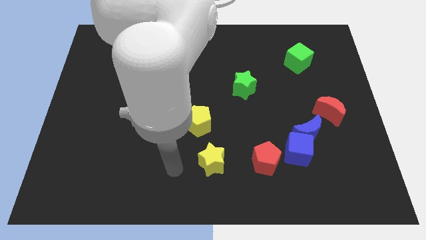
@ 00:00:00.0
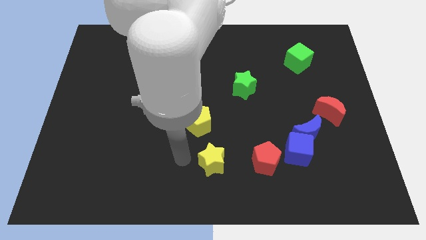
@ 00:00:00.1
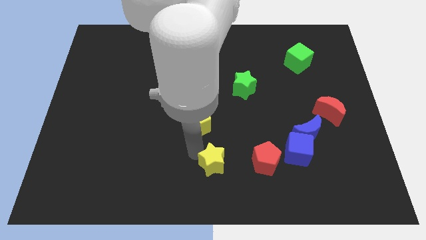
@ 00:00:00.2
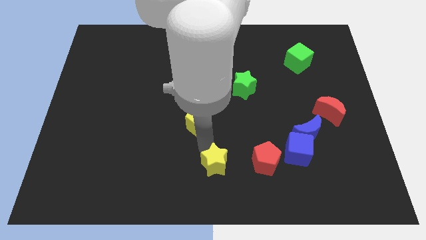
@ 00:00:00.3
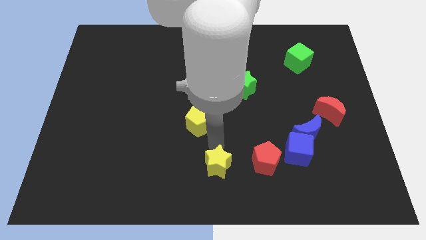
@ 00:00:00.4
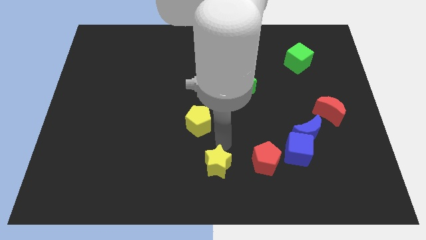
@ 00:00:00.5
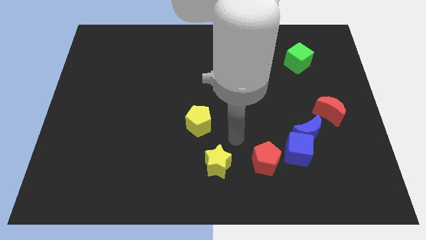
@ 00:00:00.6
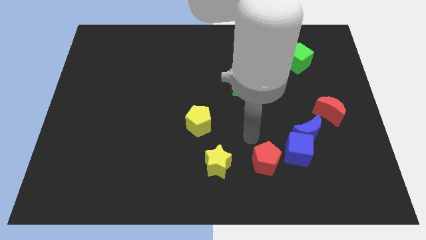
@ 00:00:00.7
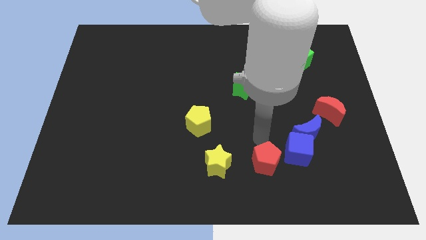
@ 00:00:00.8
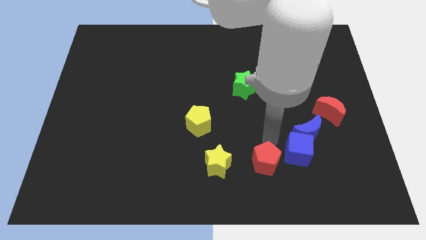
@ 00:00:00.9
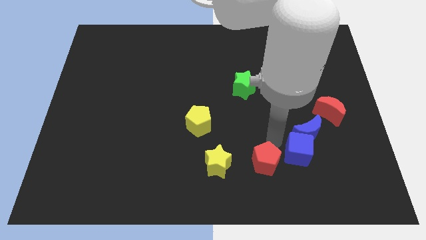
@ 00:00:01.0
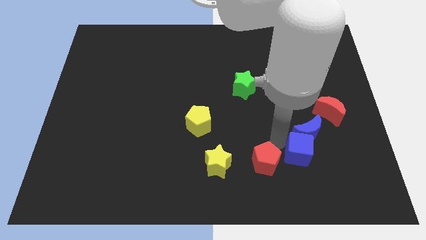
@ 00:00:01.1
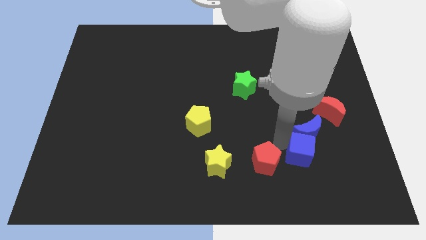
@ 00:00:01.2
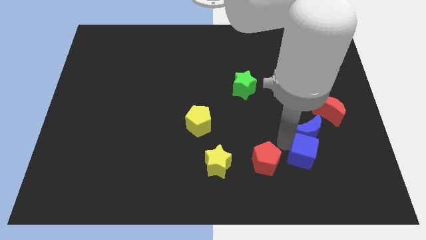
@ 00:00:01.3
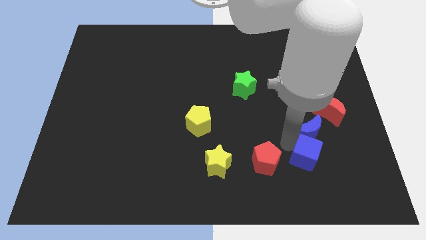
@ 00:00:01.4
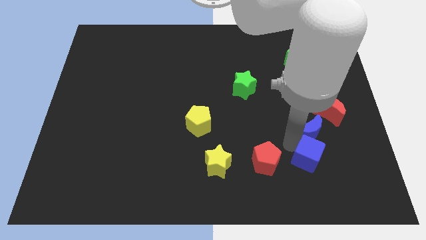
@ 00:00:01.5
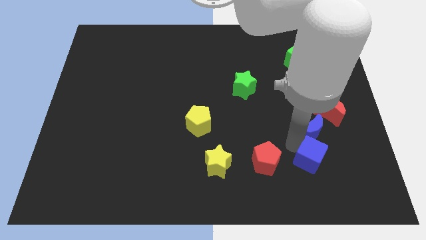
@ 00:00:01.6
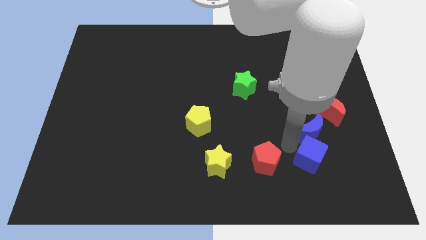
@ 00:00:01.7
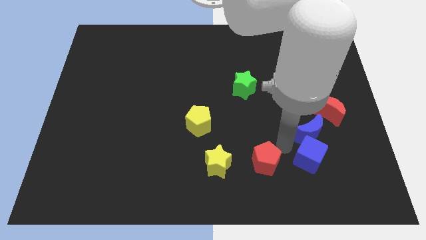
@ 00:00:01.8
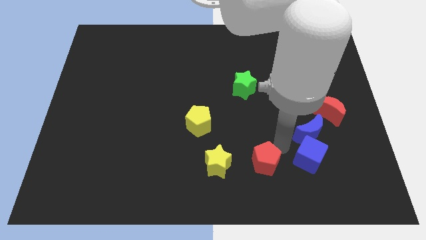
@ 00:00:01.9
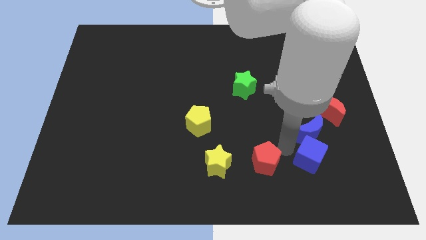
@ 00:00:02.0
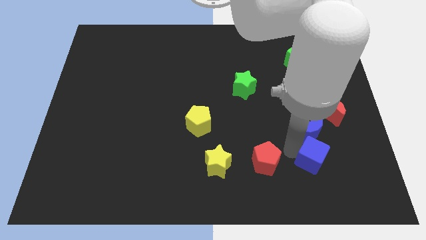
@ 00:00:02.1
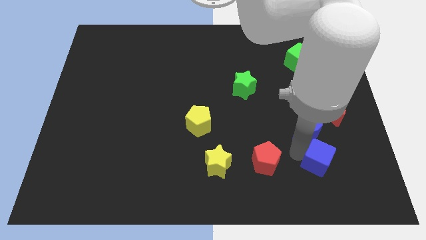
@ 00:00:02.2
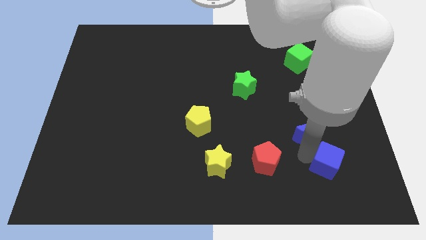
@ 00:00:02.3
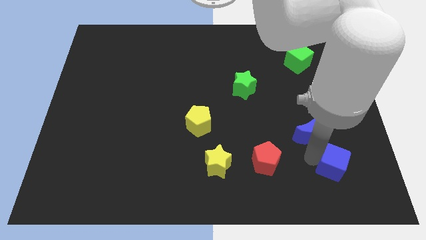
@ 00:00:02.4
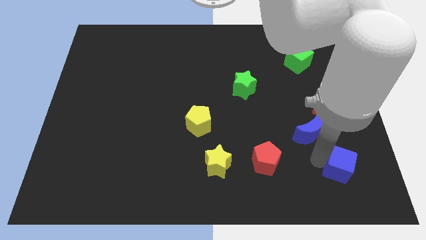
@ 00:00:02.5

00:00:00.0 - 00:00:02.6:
pull the blue cube apart from the blue moon and red pentagon

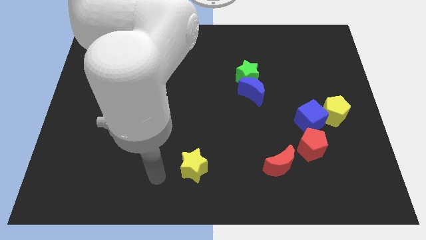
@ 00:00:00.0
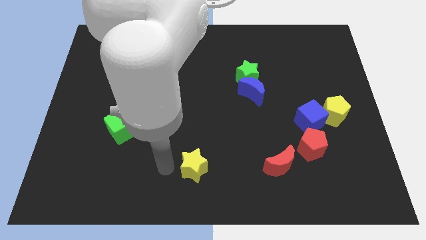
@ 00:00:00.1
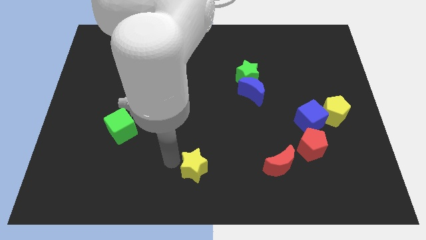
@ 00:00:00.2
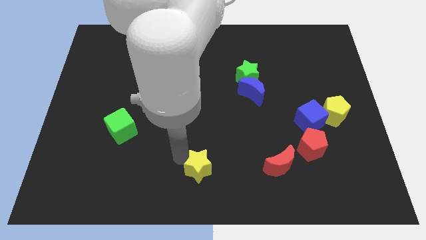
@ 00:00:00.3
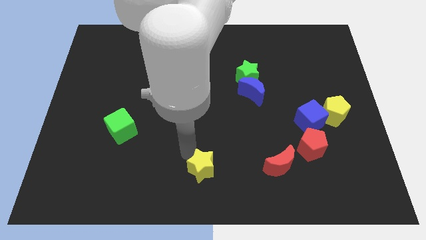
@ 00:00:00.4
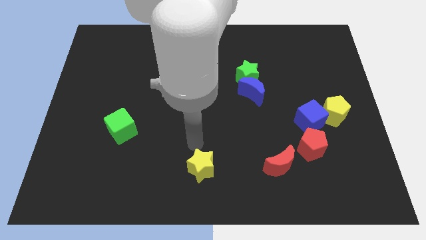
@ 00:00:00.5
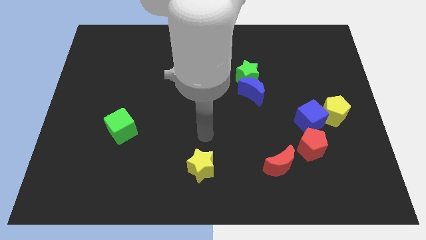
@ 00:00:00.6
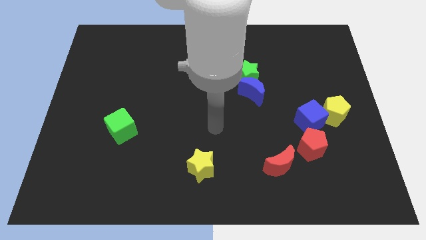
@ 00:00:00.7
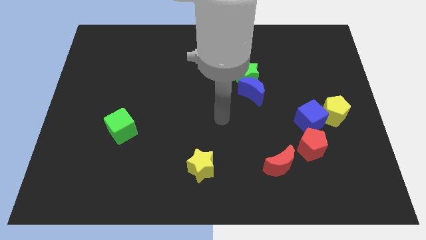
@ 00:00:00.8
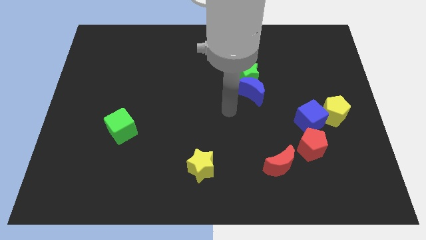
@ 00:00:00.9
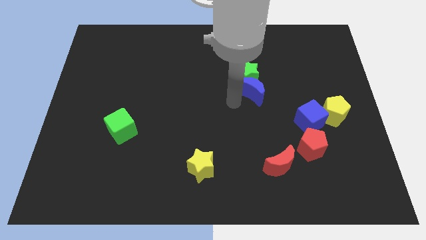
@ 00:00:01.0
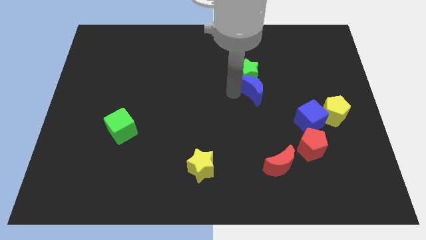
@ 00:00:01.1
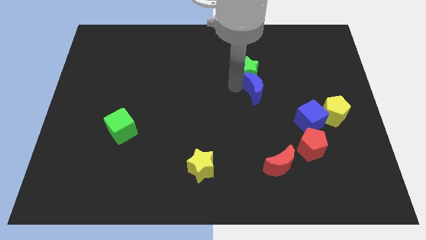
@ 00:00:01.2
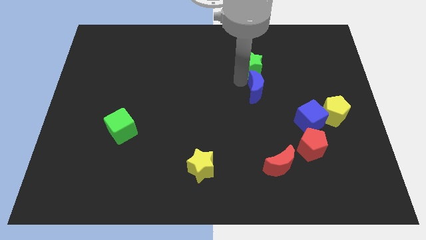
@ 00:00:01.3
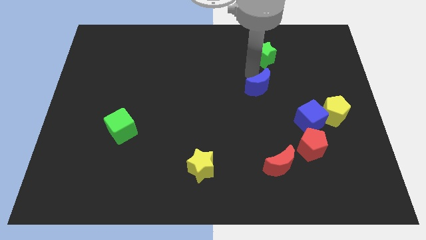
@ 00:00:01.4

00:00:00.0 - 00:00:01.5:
separate the blue moon from the green star

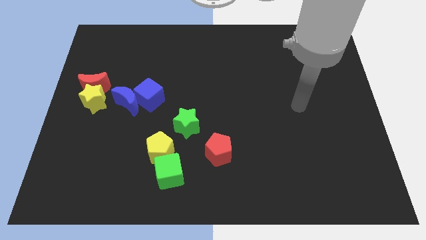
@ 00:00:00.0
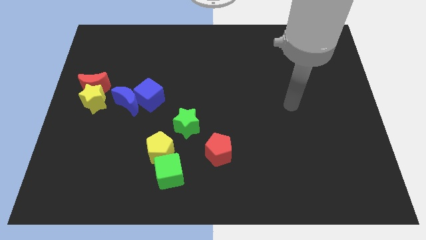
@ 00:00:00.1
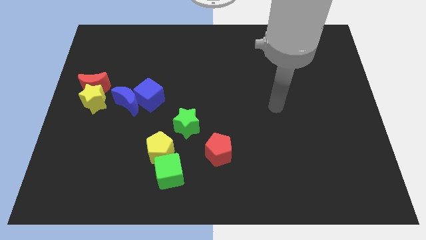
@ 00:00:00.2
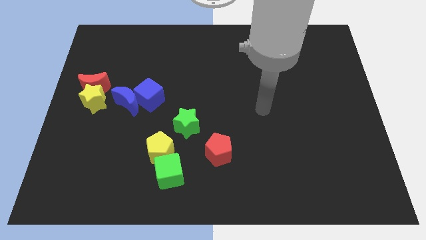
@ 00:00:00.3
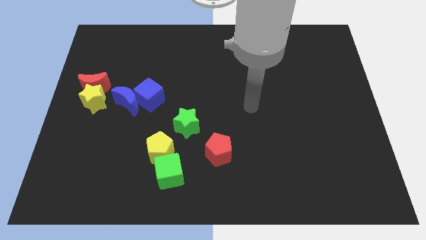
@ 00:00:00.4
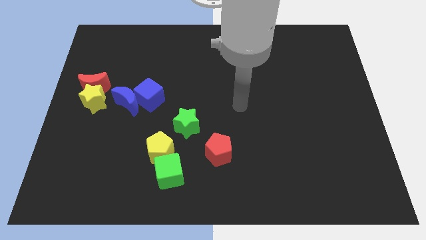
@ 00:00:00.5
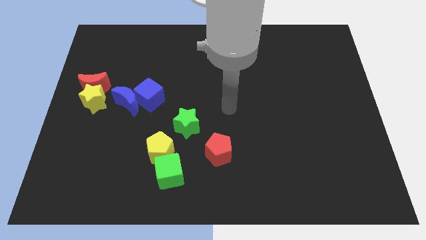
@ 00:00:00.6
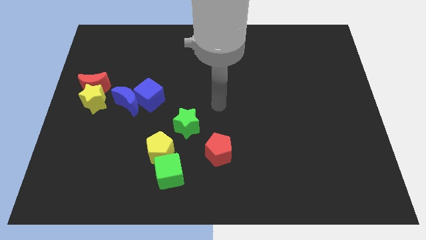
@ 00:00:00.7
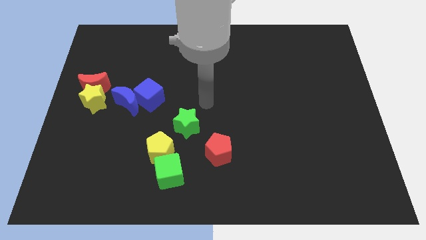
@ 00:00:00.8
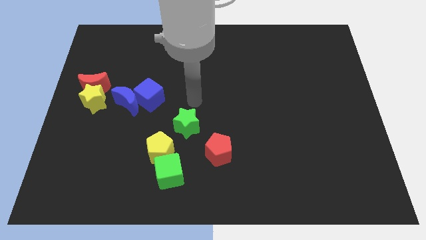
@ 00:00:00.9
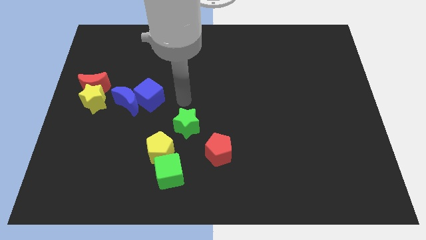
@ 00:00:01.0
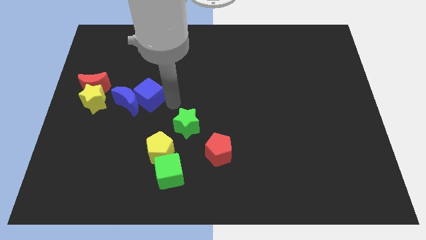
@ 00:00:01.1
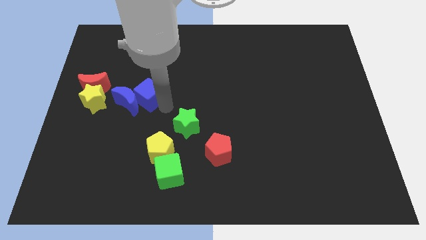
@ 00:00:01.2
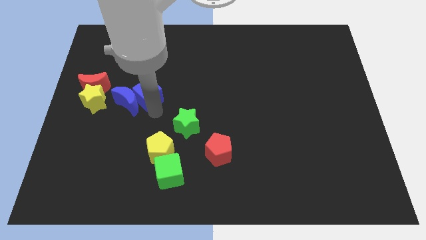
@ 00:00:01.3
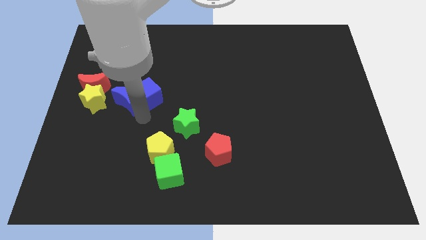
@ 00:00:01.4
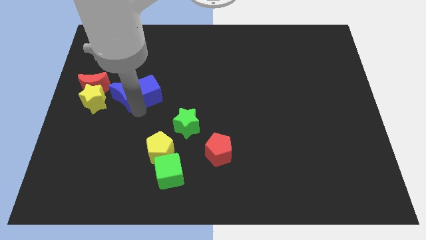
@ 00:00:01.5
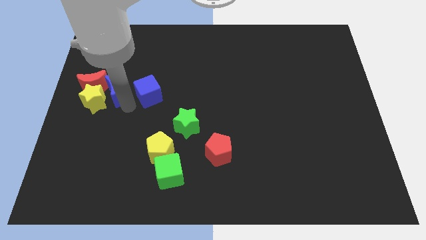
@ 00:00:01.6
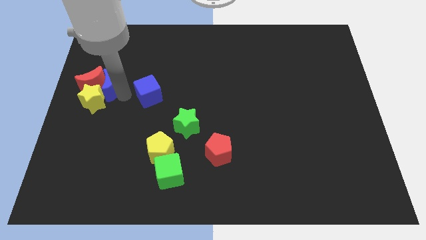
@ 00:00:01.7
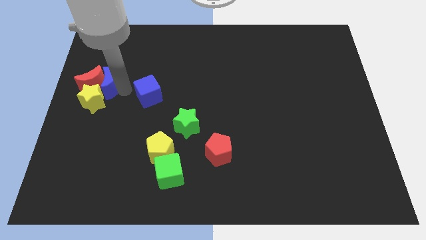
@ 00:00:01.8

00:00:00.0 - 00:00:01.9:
separate the blue cube from the blue moon

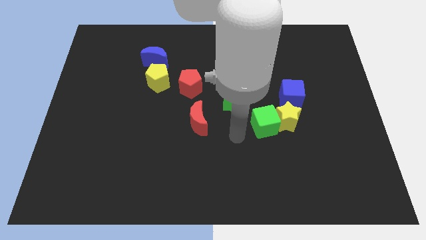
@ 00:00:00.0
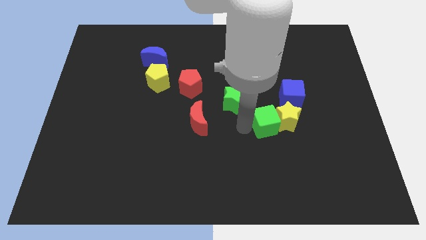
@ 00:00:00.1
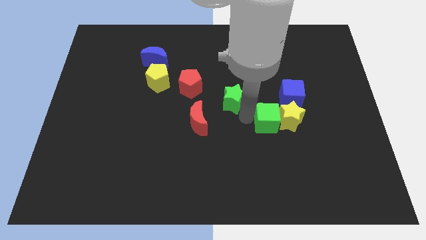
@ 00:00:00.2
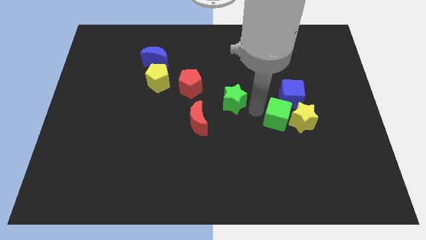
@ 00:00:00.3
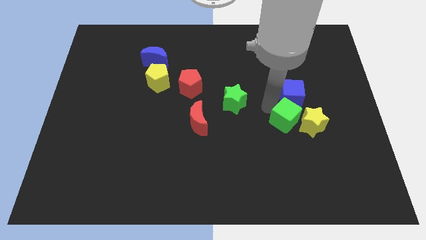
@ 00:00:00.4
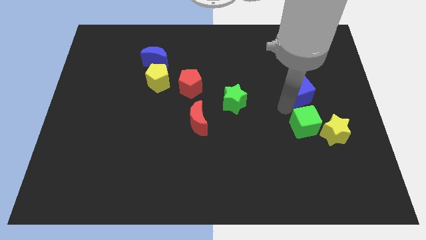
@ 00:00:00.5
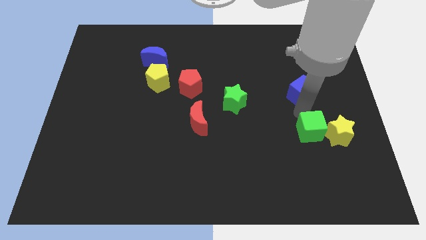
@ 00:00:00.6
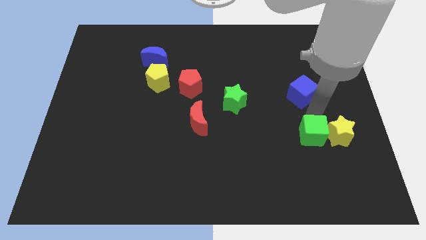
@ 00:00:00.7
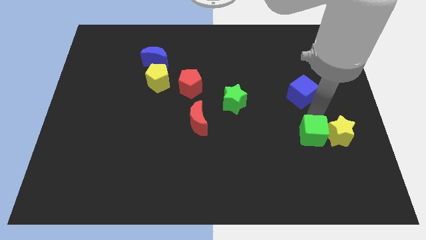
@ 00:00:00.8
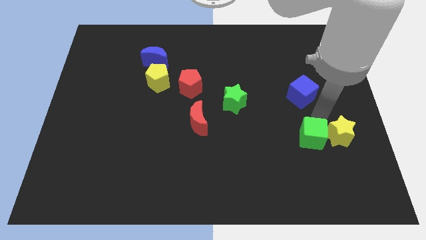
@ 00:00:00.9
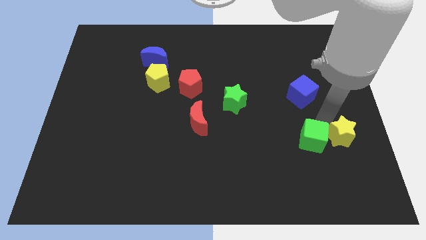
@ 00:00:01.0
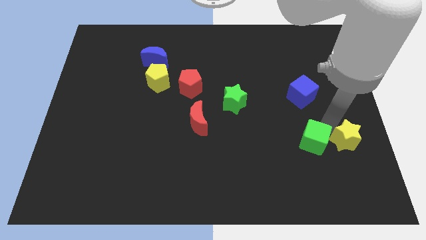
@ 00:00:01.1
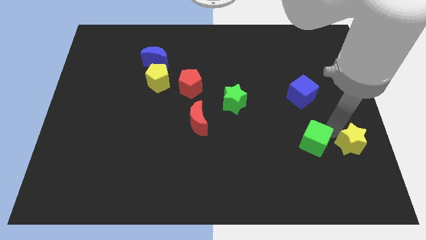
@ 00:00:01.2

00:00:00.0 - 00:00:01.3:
move the yellow star away from the green cube and blue cube

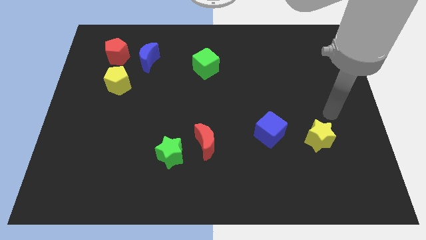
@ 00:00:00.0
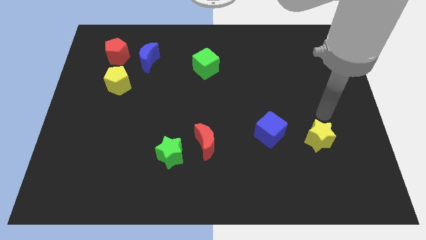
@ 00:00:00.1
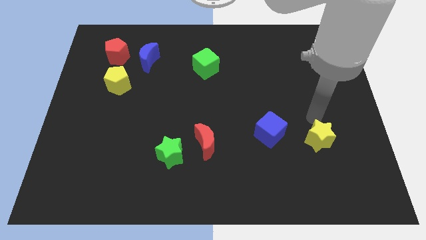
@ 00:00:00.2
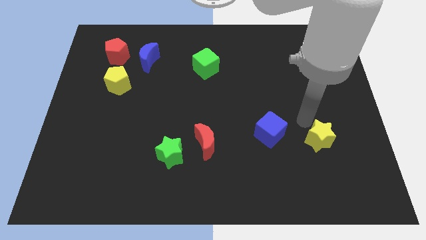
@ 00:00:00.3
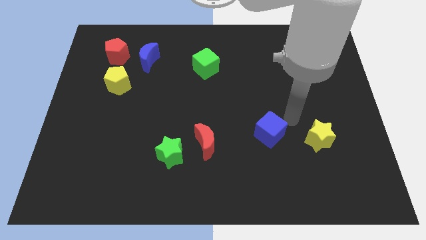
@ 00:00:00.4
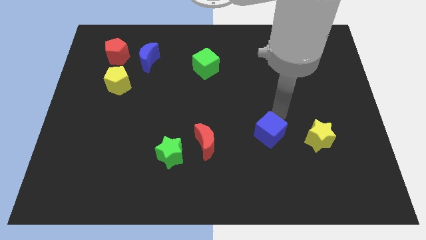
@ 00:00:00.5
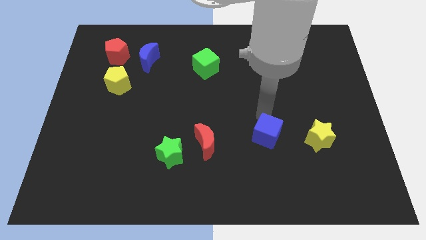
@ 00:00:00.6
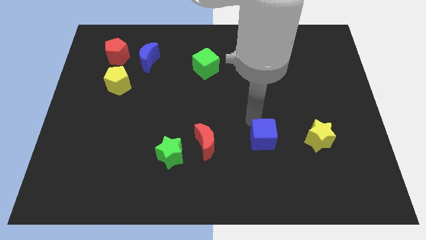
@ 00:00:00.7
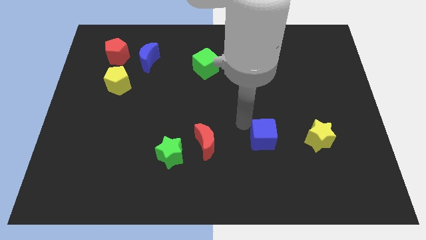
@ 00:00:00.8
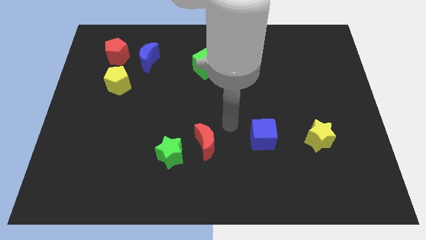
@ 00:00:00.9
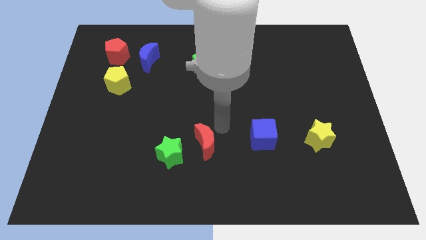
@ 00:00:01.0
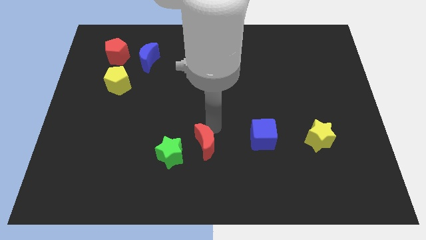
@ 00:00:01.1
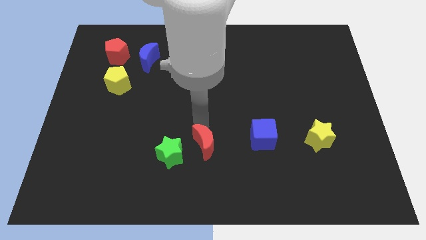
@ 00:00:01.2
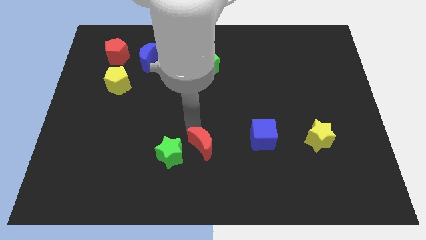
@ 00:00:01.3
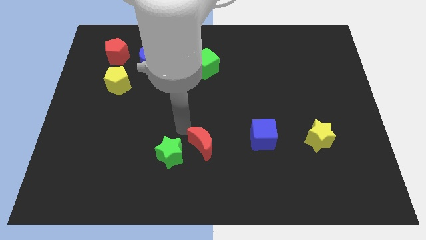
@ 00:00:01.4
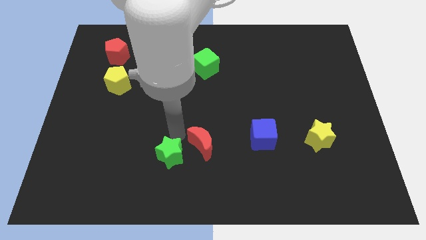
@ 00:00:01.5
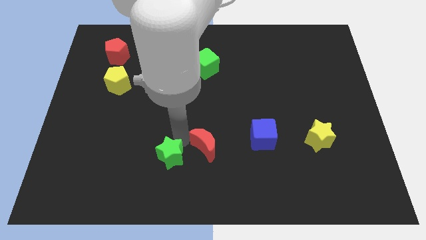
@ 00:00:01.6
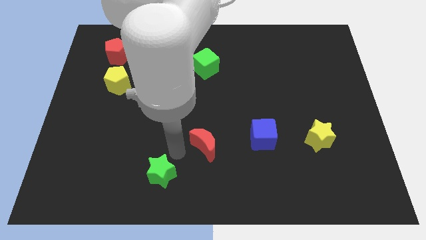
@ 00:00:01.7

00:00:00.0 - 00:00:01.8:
pull the red moon apart from the green star
